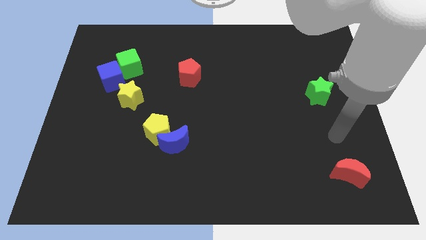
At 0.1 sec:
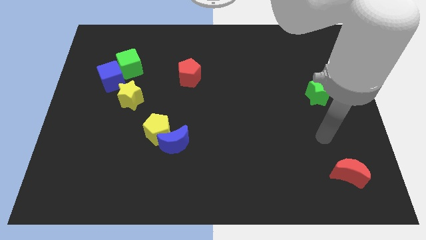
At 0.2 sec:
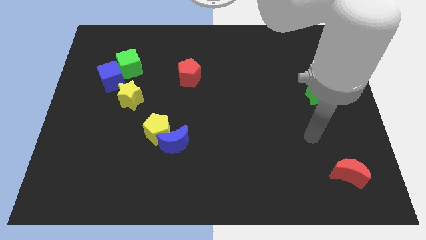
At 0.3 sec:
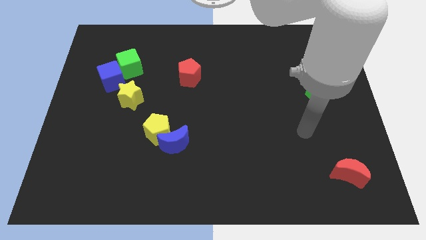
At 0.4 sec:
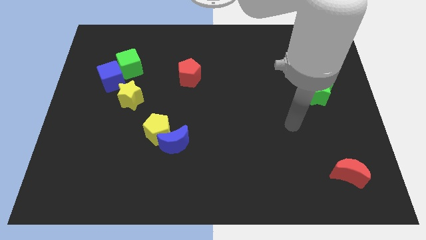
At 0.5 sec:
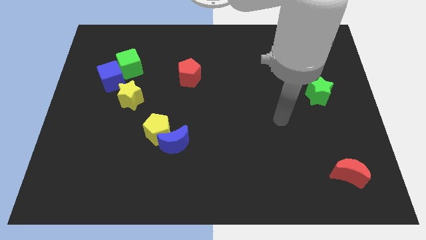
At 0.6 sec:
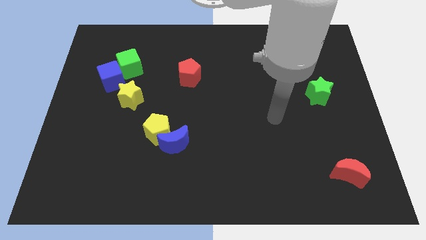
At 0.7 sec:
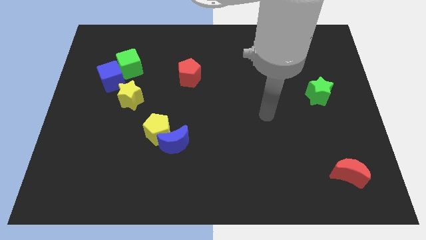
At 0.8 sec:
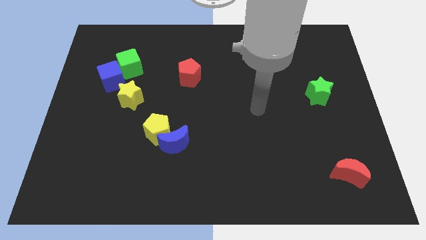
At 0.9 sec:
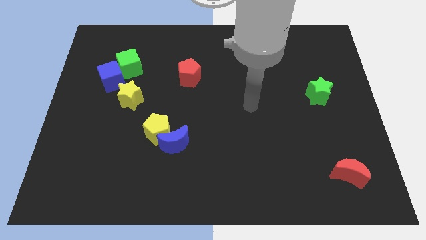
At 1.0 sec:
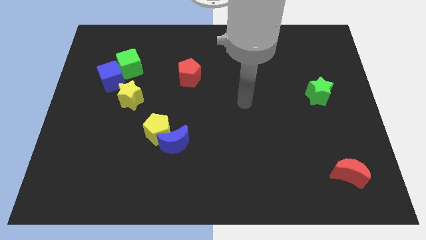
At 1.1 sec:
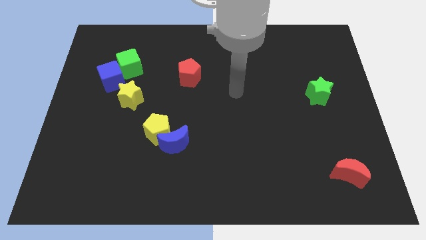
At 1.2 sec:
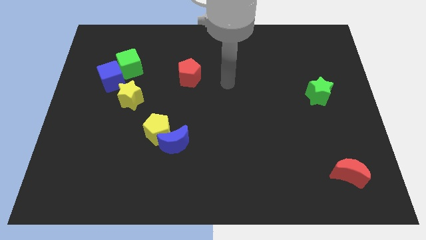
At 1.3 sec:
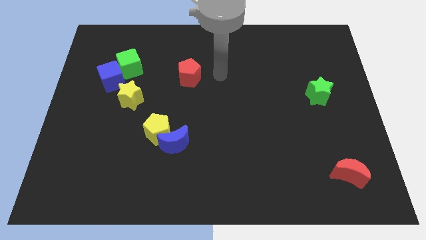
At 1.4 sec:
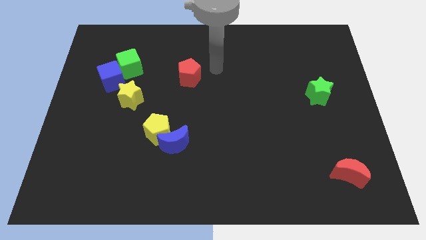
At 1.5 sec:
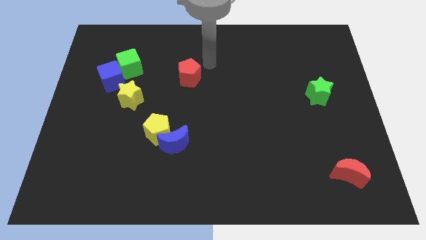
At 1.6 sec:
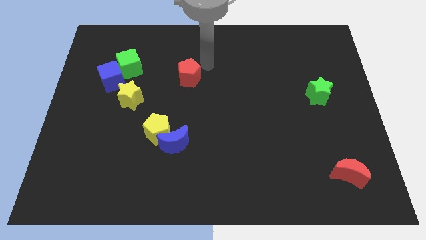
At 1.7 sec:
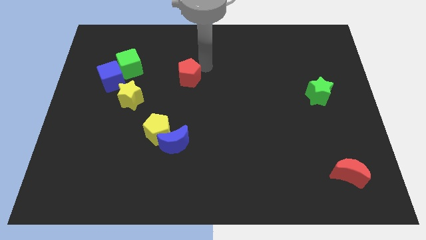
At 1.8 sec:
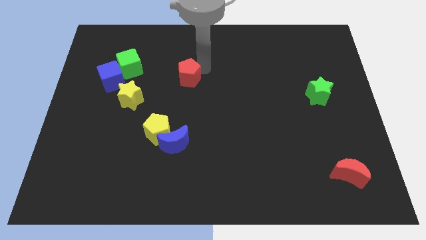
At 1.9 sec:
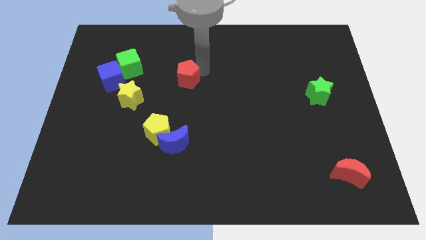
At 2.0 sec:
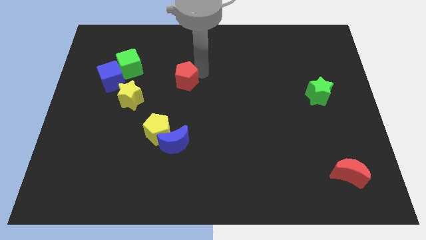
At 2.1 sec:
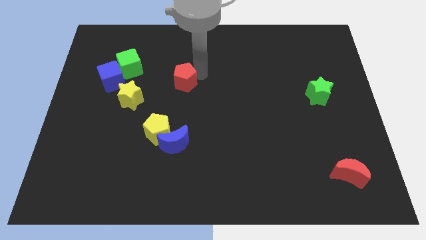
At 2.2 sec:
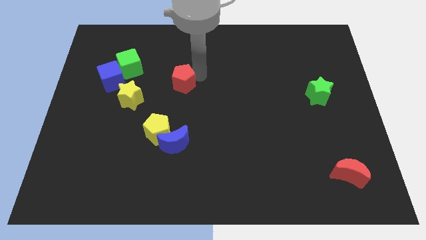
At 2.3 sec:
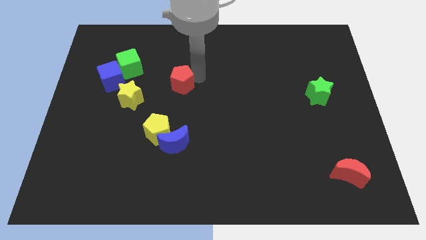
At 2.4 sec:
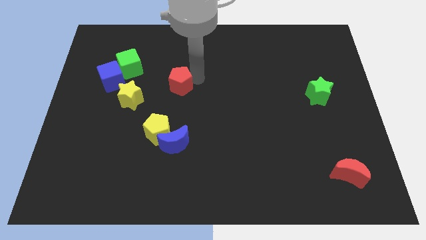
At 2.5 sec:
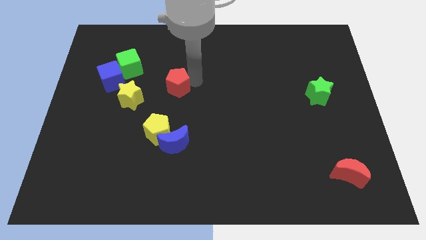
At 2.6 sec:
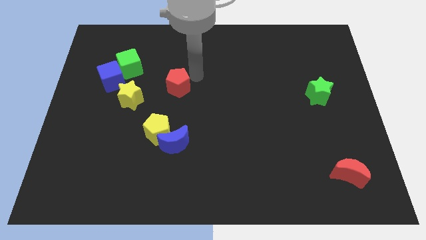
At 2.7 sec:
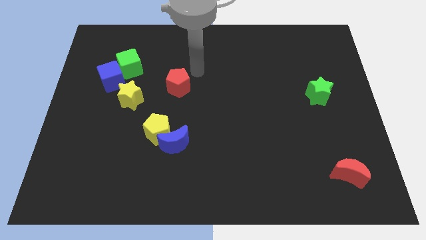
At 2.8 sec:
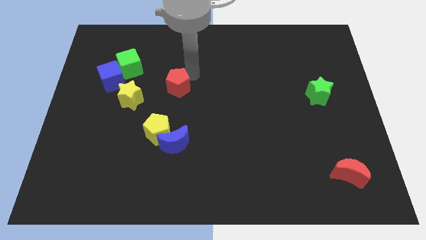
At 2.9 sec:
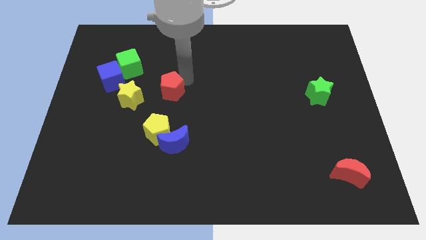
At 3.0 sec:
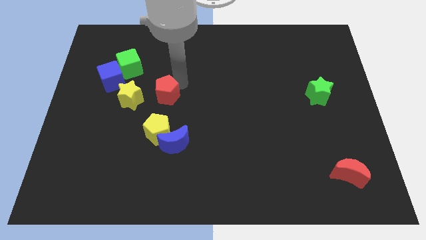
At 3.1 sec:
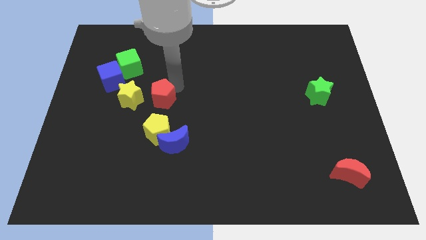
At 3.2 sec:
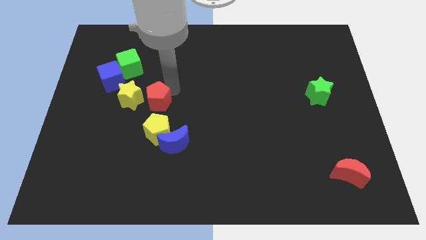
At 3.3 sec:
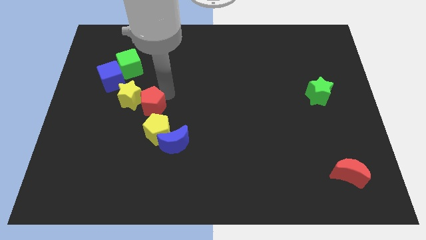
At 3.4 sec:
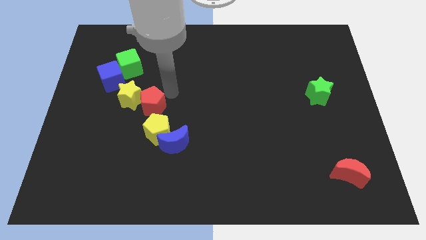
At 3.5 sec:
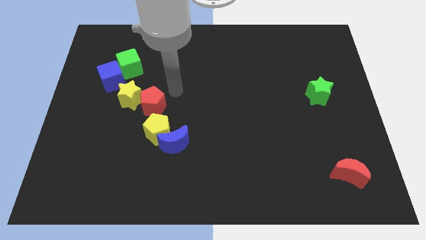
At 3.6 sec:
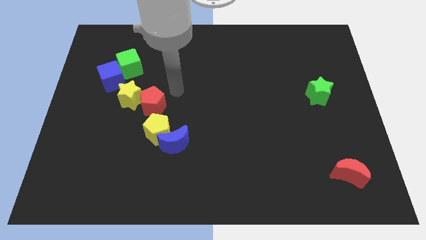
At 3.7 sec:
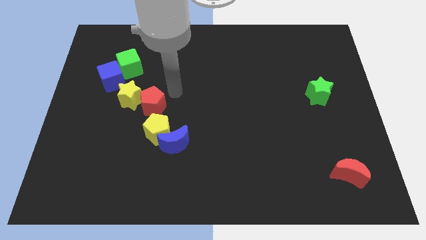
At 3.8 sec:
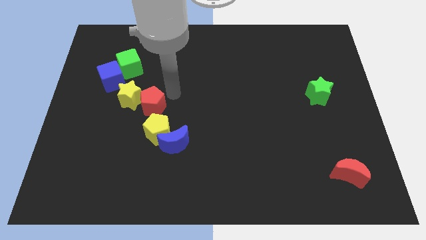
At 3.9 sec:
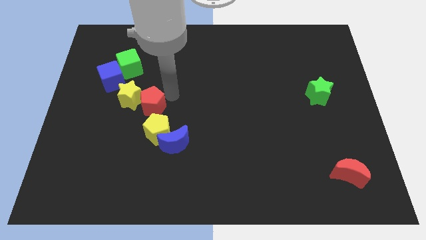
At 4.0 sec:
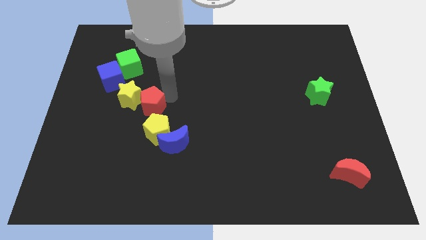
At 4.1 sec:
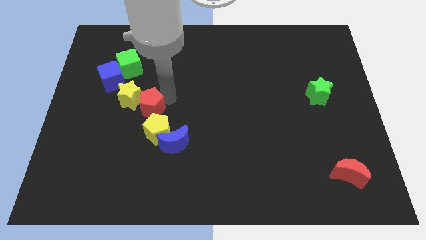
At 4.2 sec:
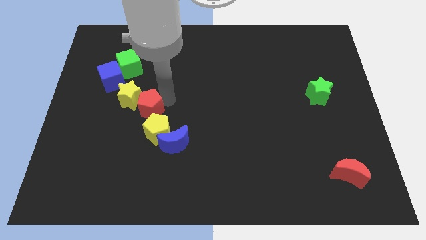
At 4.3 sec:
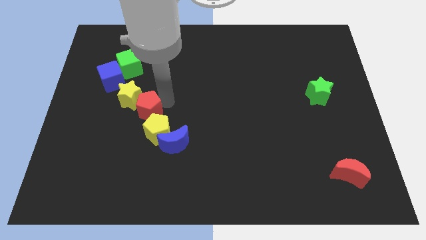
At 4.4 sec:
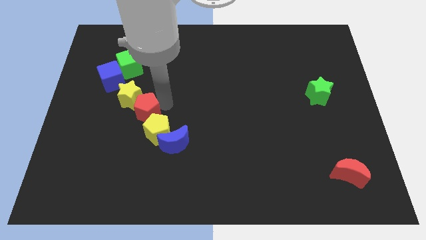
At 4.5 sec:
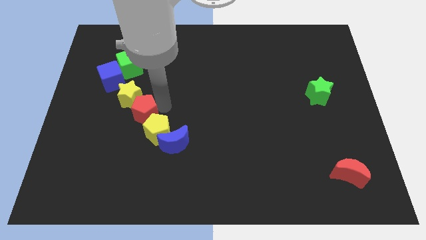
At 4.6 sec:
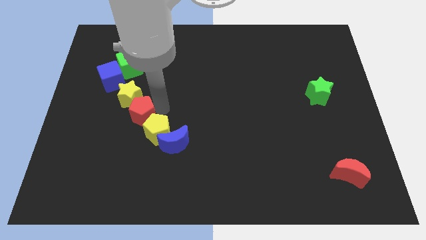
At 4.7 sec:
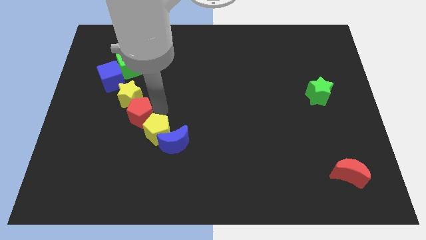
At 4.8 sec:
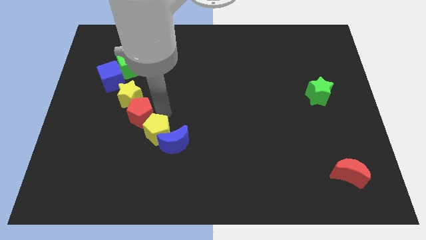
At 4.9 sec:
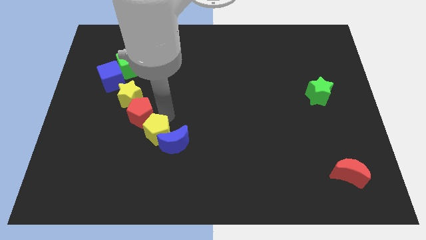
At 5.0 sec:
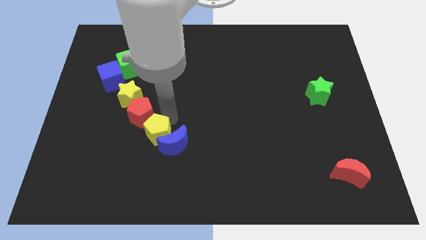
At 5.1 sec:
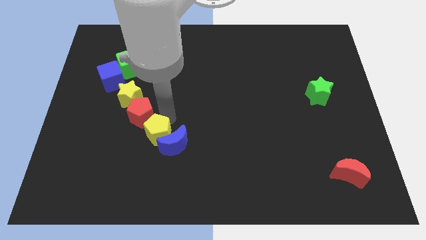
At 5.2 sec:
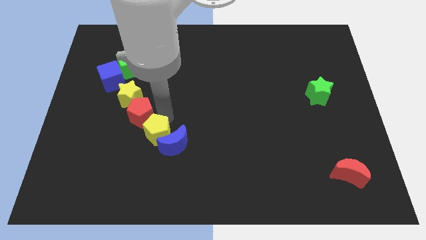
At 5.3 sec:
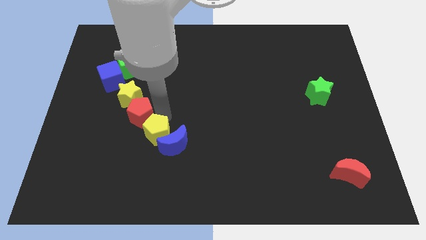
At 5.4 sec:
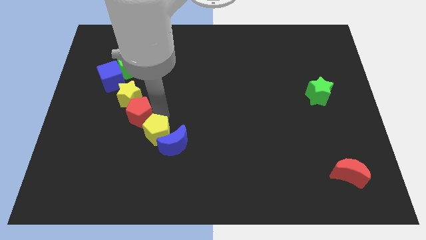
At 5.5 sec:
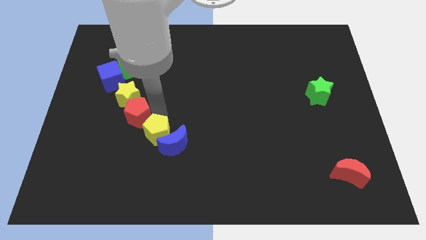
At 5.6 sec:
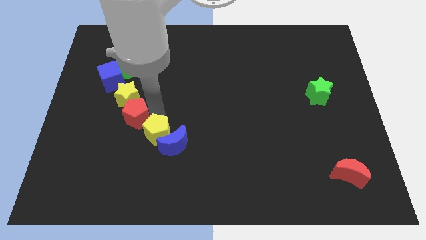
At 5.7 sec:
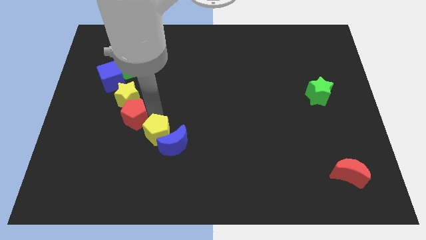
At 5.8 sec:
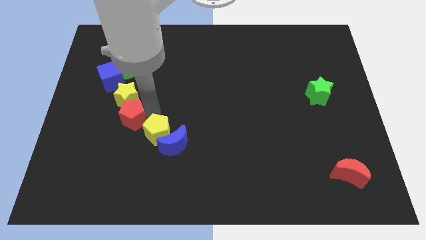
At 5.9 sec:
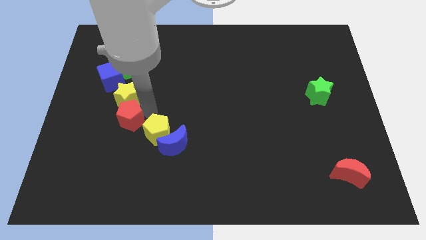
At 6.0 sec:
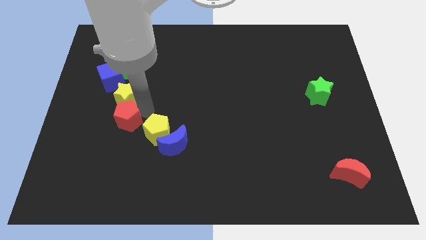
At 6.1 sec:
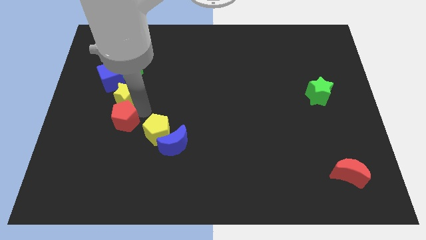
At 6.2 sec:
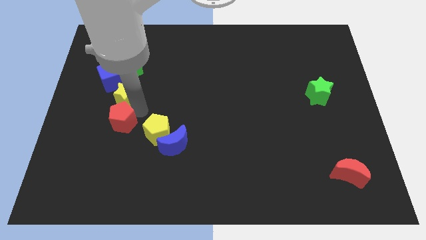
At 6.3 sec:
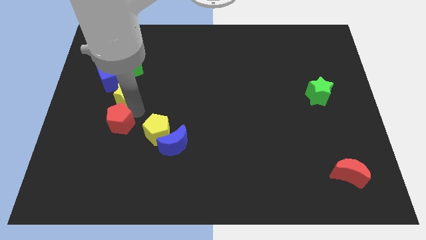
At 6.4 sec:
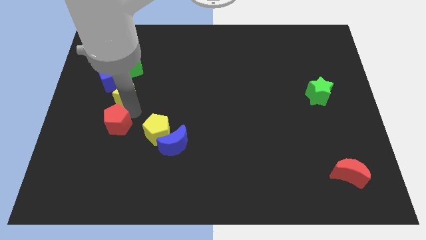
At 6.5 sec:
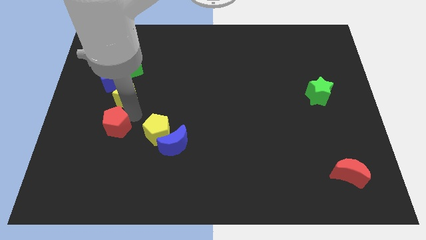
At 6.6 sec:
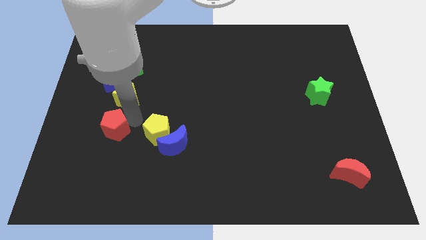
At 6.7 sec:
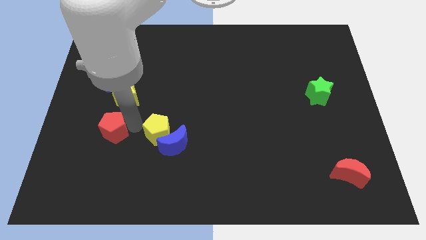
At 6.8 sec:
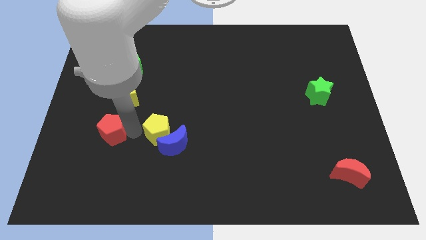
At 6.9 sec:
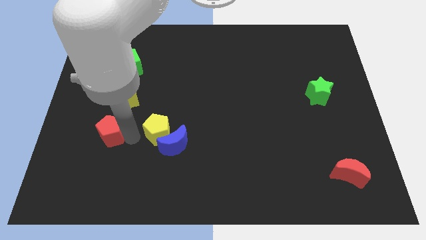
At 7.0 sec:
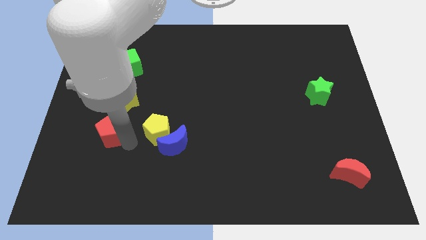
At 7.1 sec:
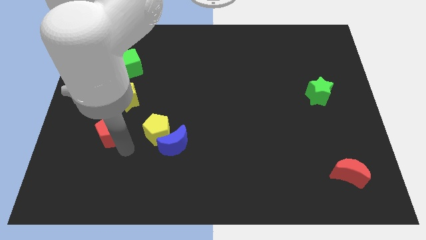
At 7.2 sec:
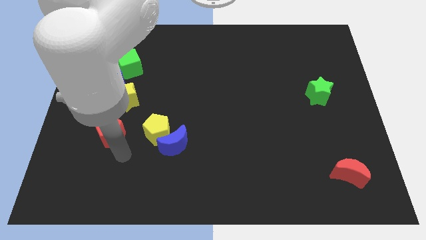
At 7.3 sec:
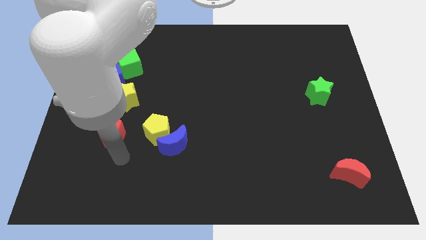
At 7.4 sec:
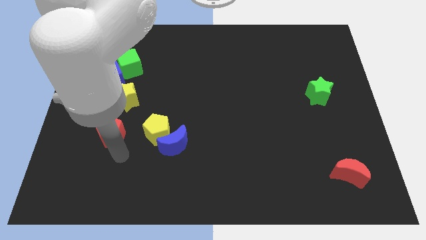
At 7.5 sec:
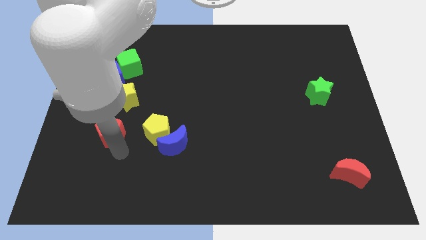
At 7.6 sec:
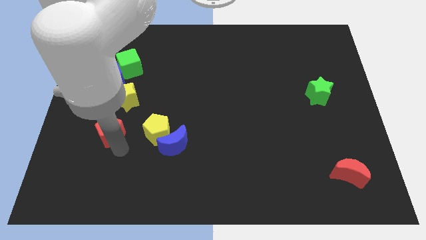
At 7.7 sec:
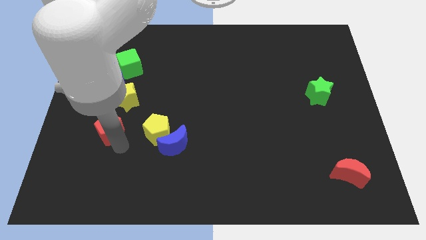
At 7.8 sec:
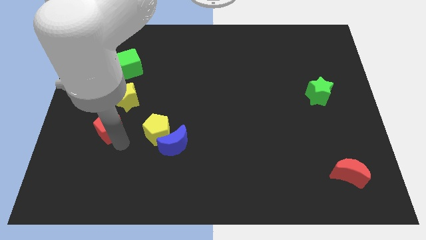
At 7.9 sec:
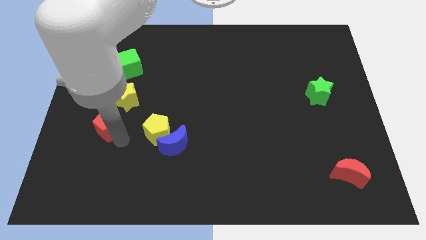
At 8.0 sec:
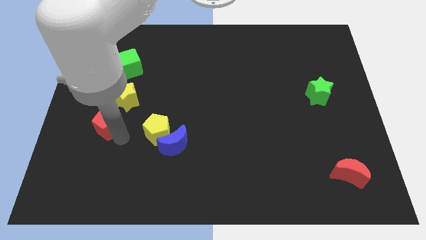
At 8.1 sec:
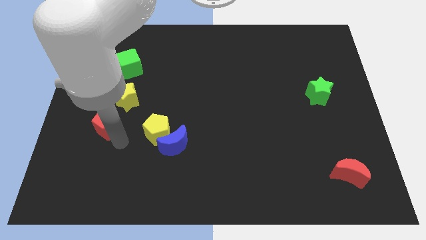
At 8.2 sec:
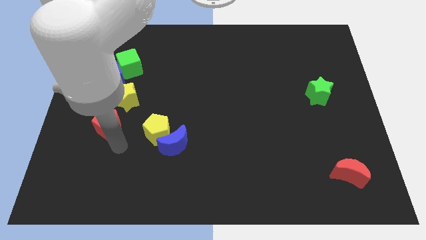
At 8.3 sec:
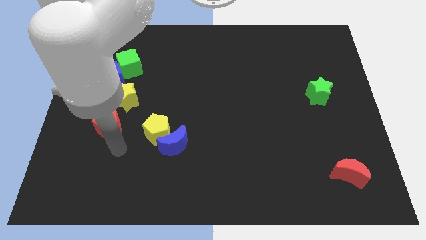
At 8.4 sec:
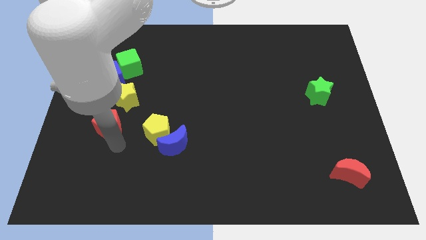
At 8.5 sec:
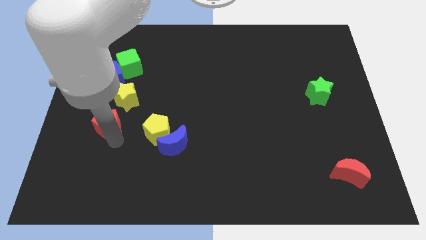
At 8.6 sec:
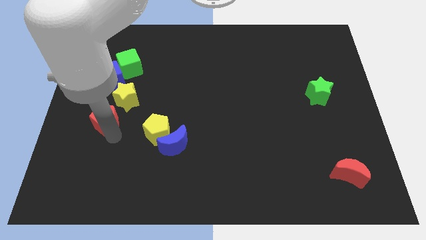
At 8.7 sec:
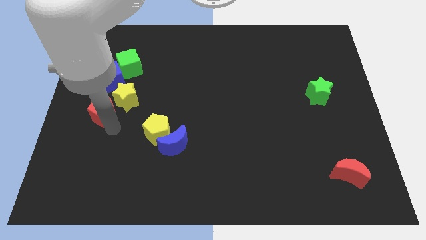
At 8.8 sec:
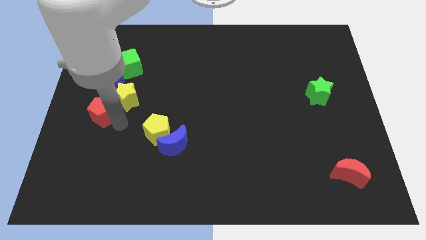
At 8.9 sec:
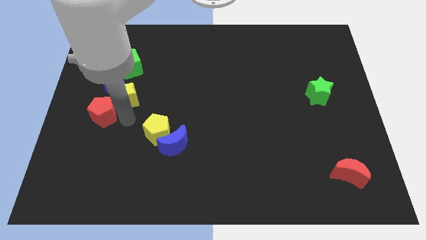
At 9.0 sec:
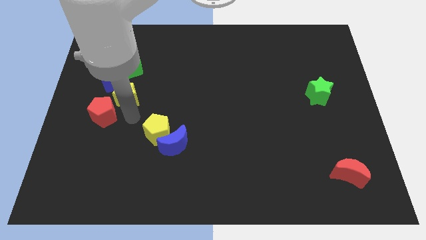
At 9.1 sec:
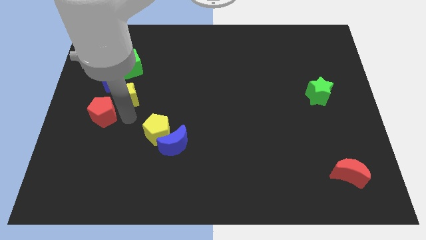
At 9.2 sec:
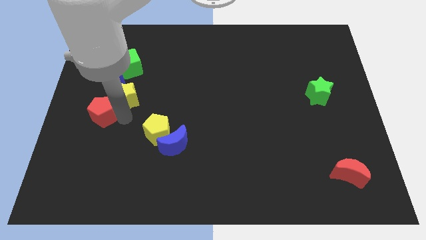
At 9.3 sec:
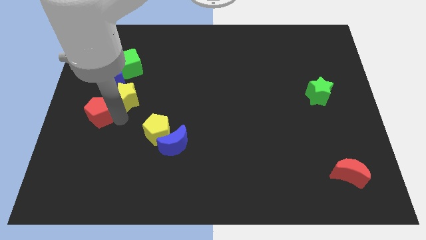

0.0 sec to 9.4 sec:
slide the red pentagon to the left side
